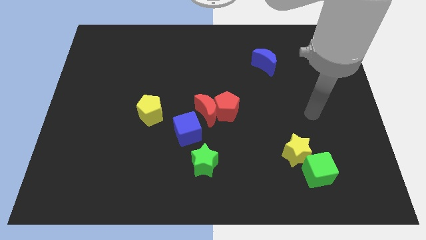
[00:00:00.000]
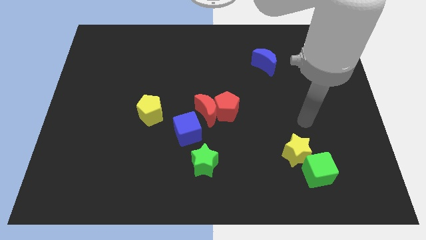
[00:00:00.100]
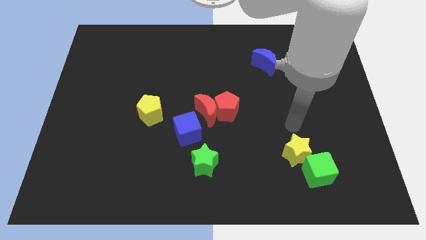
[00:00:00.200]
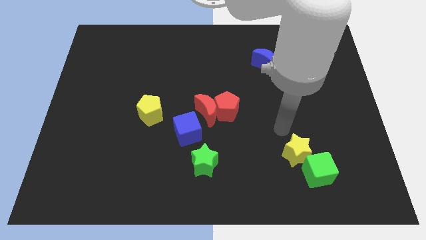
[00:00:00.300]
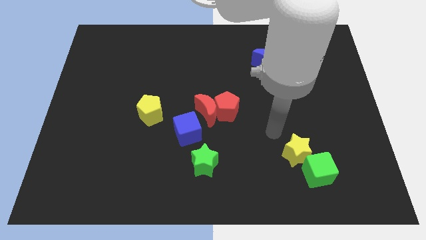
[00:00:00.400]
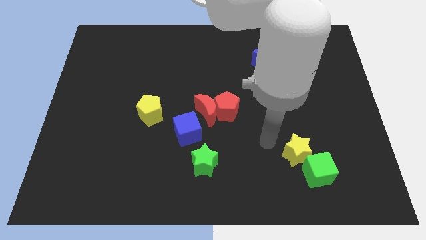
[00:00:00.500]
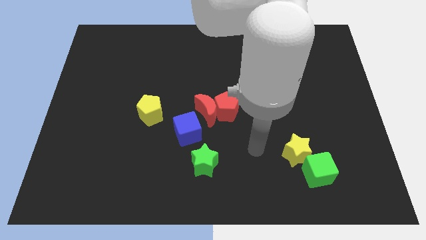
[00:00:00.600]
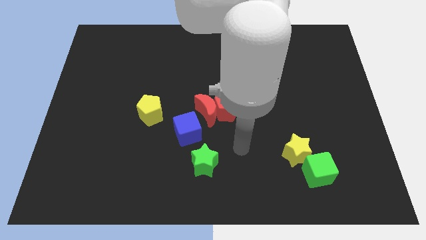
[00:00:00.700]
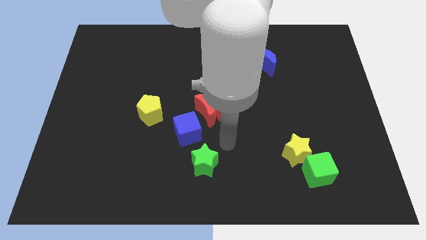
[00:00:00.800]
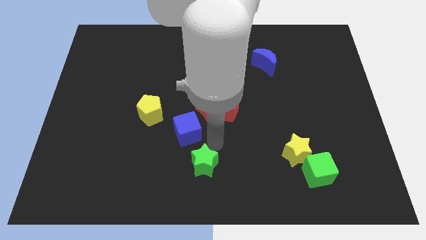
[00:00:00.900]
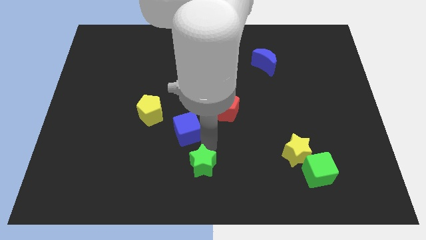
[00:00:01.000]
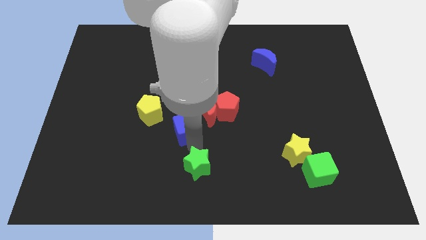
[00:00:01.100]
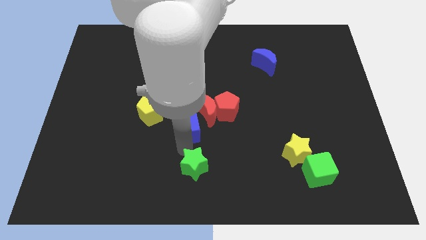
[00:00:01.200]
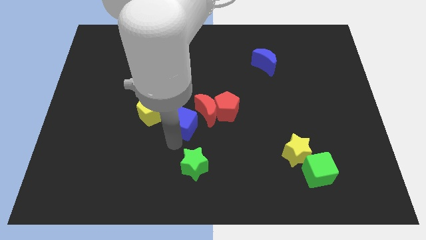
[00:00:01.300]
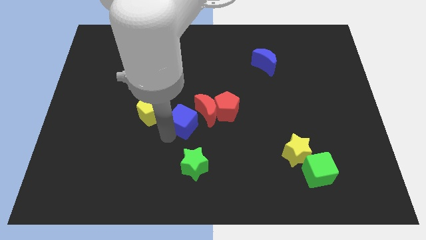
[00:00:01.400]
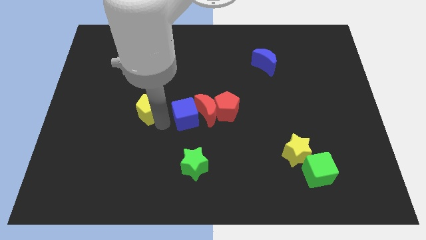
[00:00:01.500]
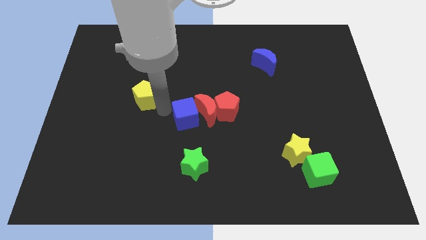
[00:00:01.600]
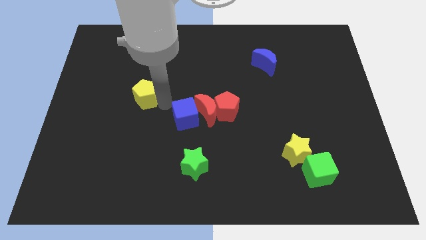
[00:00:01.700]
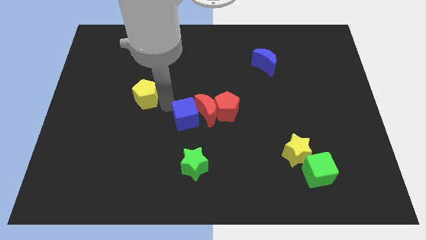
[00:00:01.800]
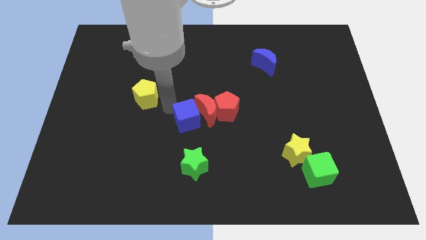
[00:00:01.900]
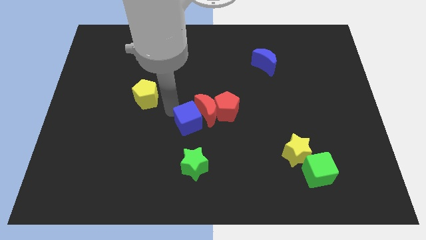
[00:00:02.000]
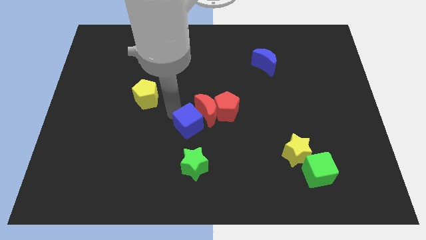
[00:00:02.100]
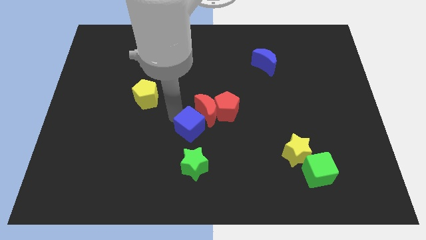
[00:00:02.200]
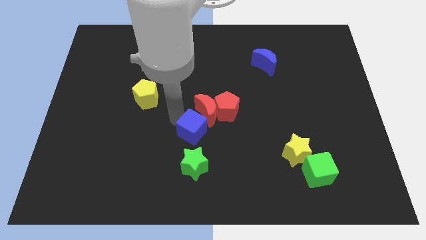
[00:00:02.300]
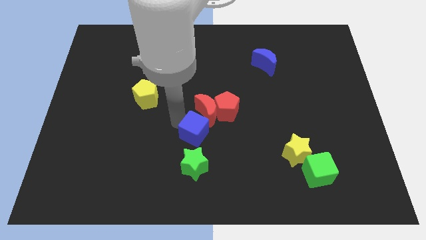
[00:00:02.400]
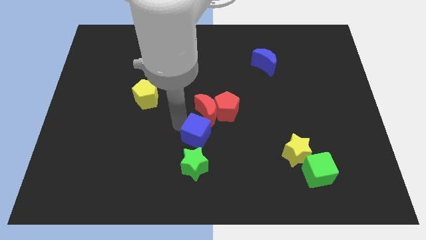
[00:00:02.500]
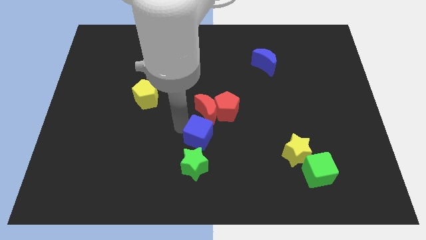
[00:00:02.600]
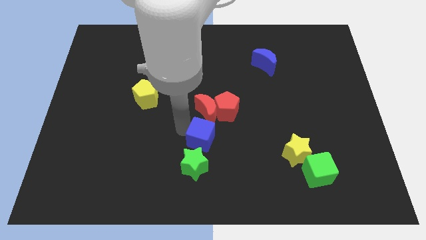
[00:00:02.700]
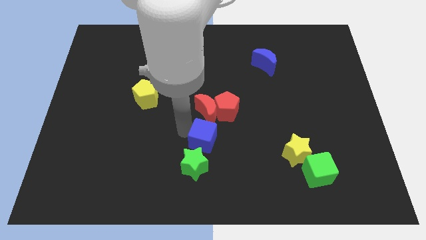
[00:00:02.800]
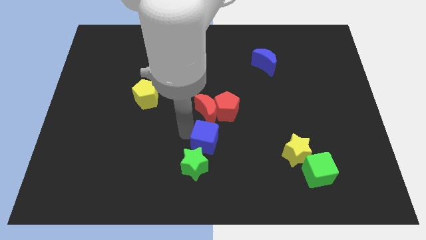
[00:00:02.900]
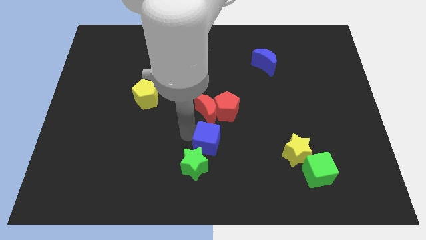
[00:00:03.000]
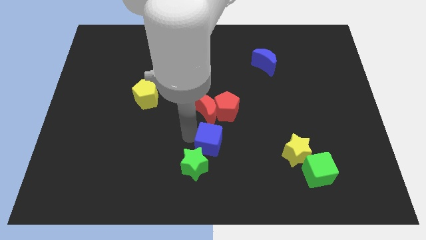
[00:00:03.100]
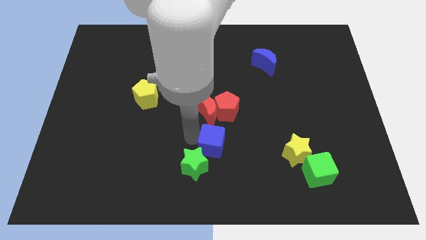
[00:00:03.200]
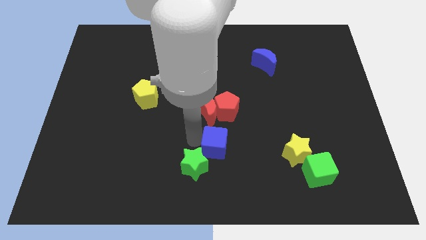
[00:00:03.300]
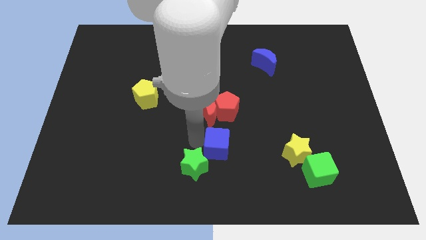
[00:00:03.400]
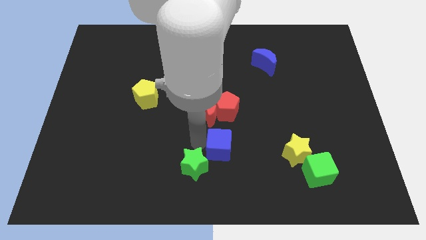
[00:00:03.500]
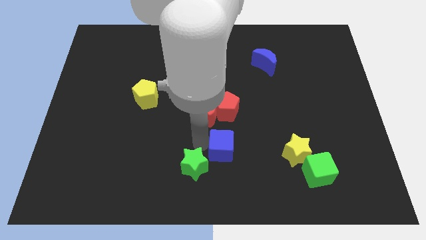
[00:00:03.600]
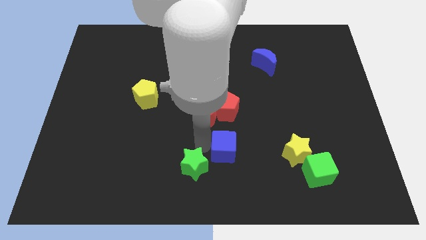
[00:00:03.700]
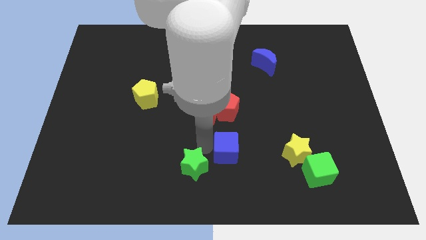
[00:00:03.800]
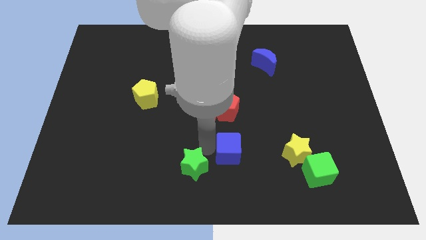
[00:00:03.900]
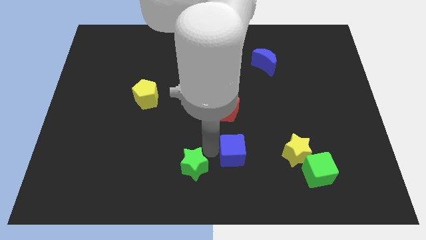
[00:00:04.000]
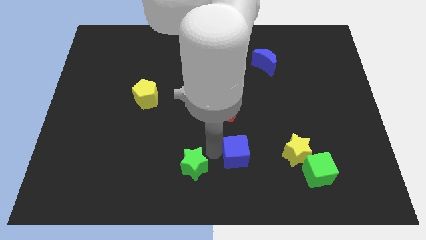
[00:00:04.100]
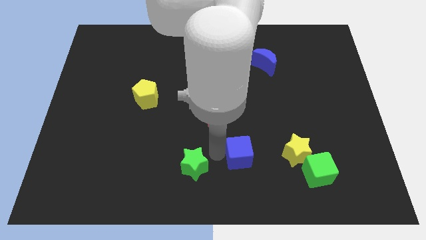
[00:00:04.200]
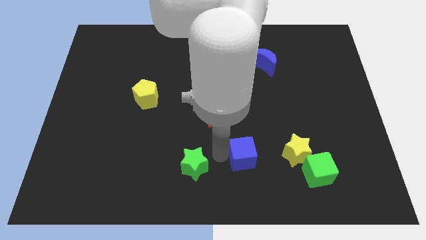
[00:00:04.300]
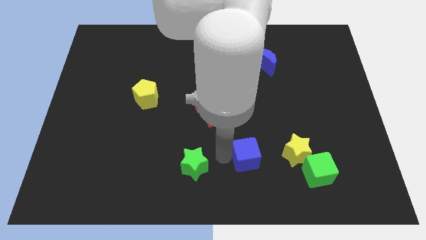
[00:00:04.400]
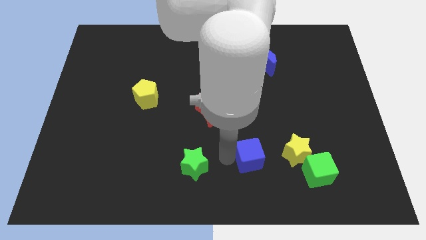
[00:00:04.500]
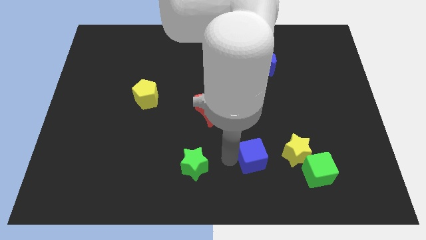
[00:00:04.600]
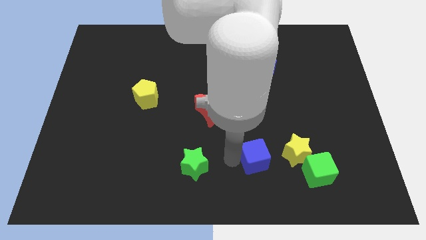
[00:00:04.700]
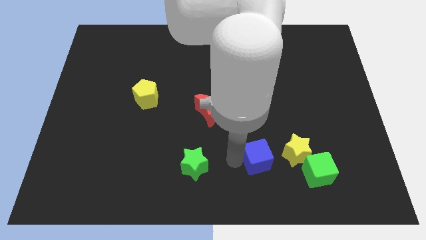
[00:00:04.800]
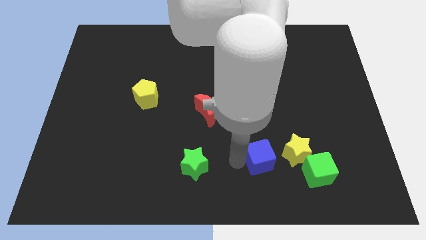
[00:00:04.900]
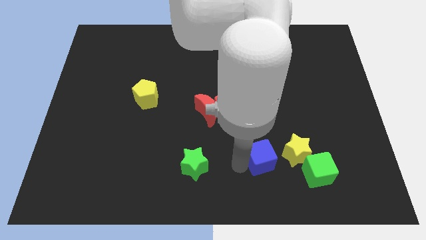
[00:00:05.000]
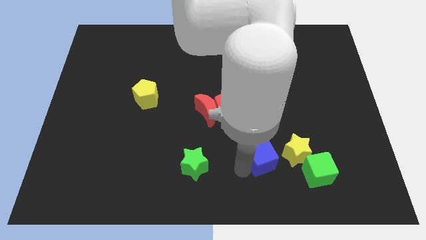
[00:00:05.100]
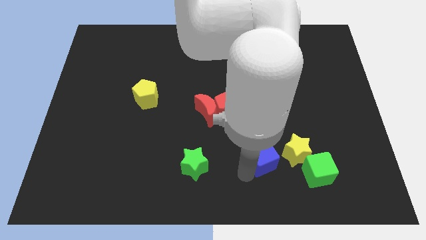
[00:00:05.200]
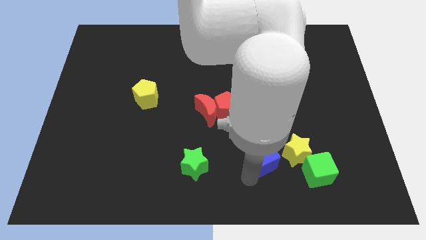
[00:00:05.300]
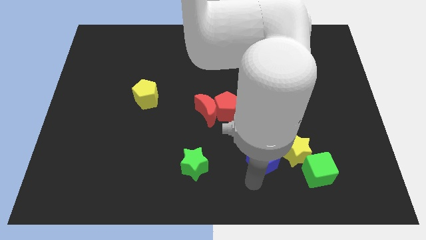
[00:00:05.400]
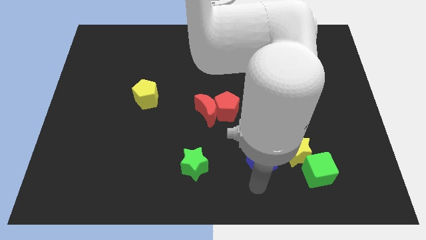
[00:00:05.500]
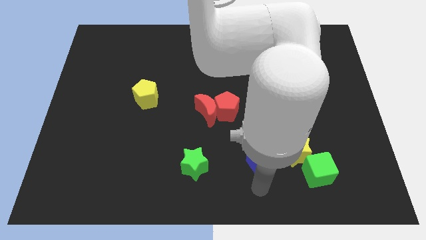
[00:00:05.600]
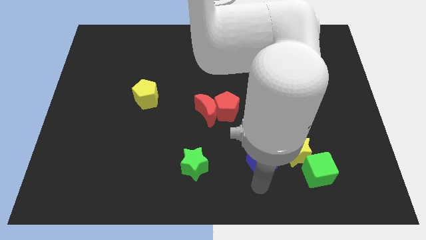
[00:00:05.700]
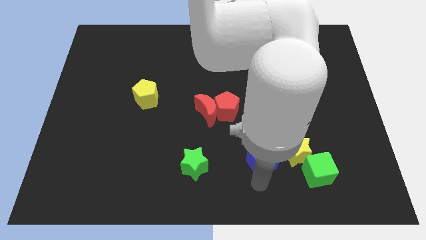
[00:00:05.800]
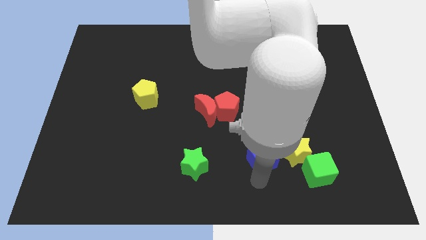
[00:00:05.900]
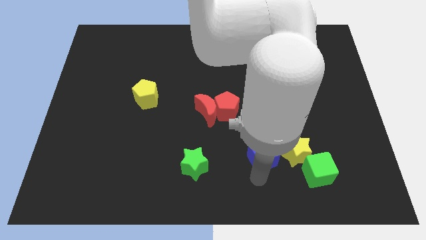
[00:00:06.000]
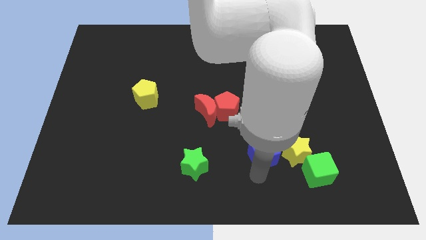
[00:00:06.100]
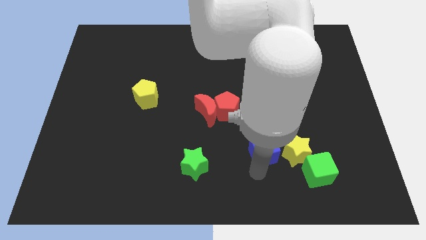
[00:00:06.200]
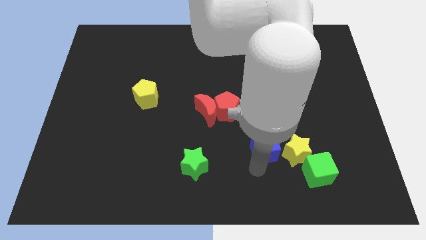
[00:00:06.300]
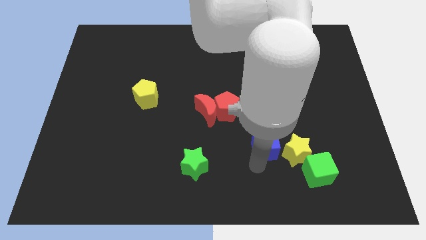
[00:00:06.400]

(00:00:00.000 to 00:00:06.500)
move the blue cube towards the yellow star
